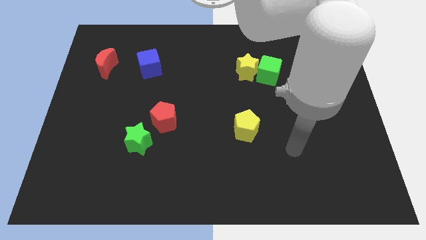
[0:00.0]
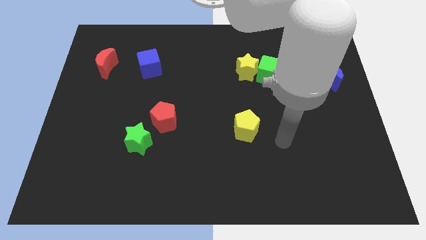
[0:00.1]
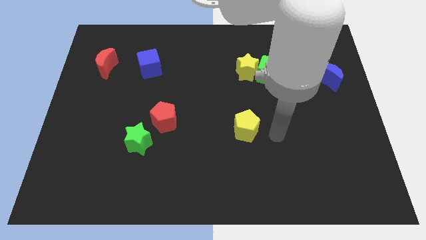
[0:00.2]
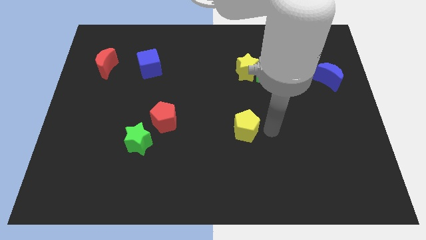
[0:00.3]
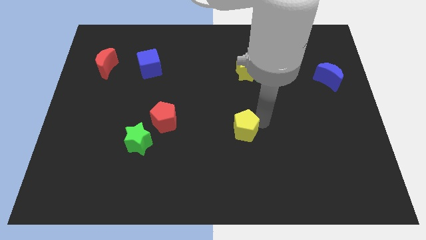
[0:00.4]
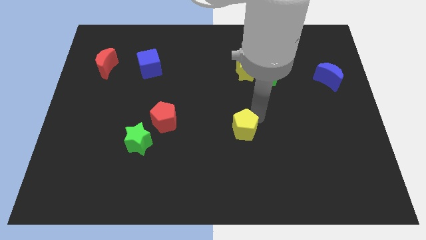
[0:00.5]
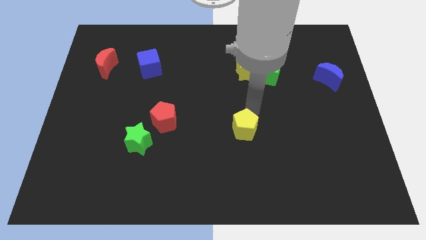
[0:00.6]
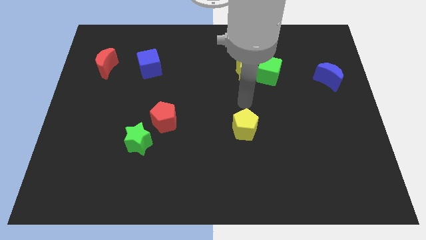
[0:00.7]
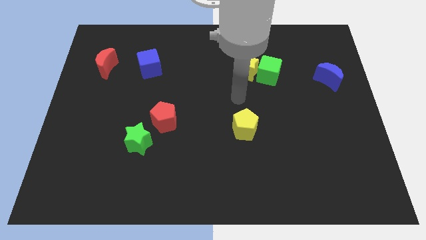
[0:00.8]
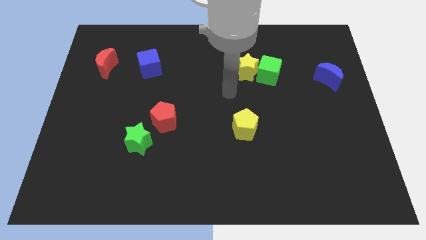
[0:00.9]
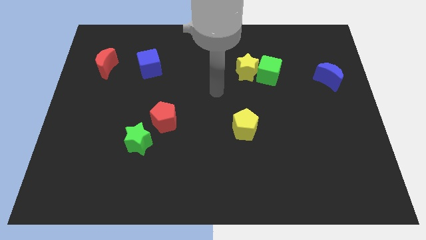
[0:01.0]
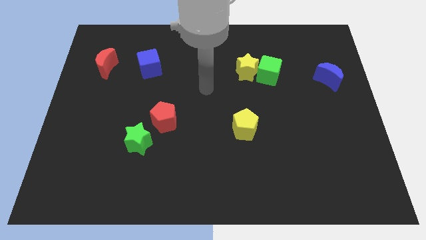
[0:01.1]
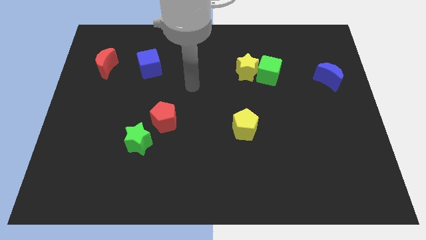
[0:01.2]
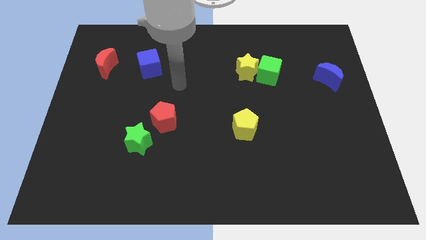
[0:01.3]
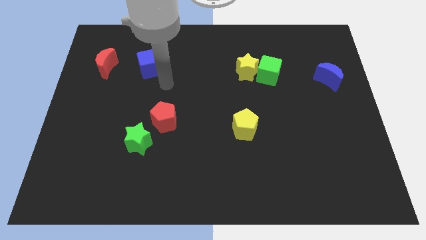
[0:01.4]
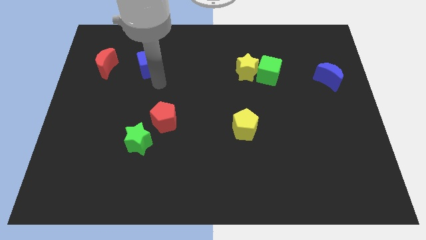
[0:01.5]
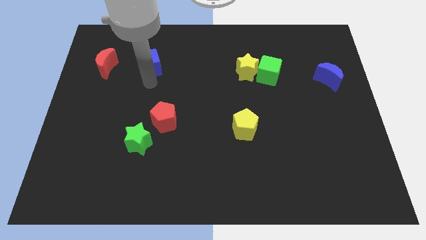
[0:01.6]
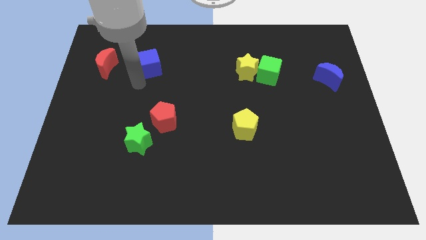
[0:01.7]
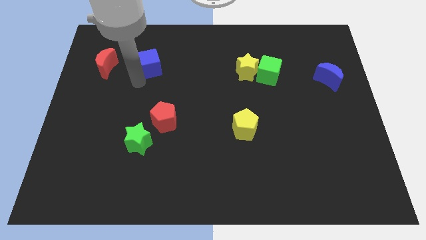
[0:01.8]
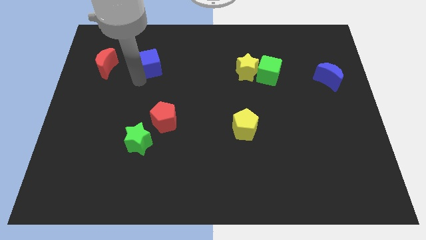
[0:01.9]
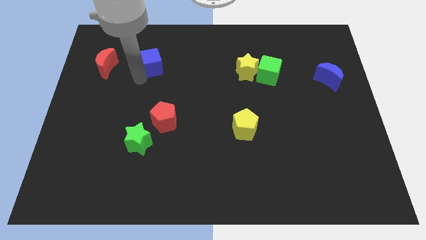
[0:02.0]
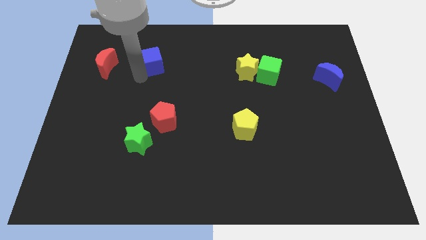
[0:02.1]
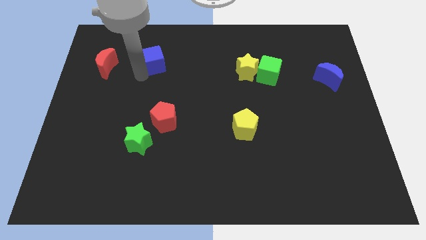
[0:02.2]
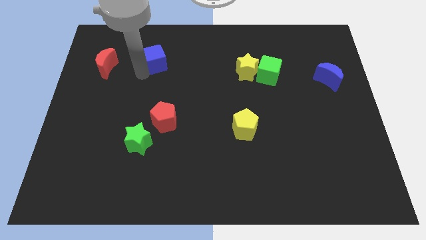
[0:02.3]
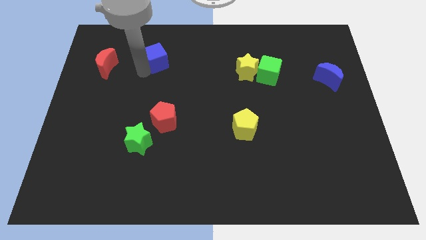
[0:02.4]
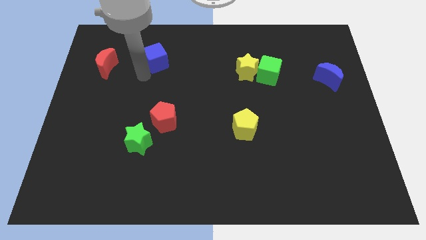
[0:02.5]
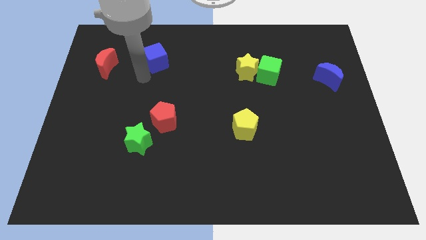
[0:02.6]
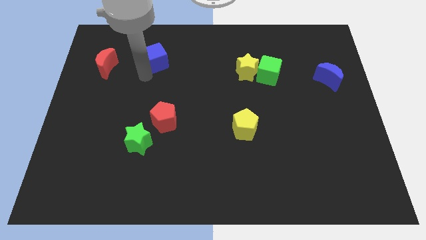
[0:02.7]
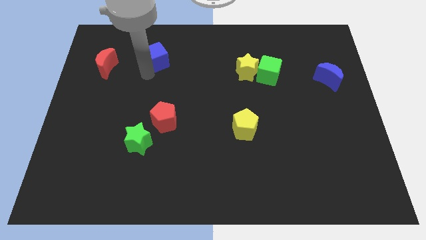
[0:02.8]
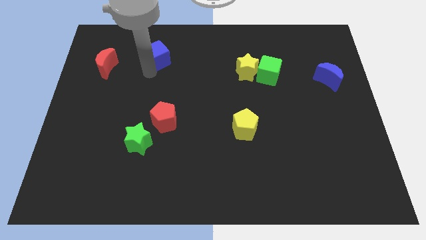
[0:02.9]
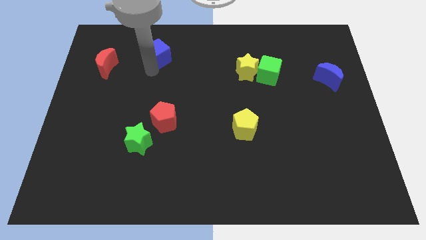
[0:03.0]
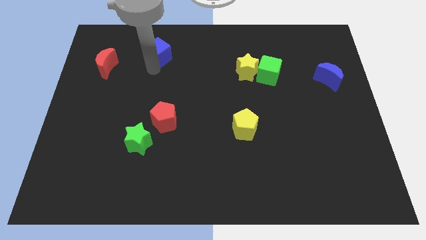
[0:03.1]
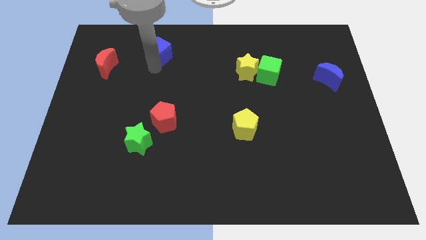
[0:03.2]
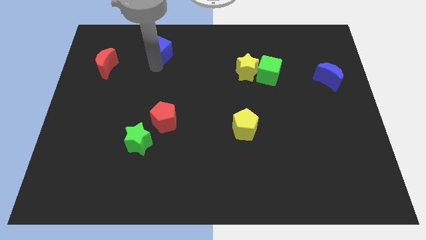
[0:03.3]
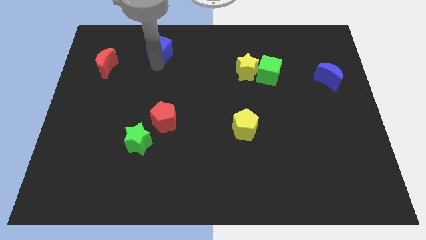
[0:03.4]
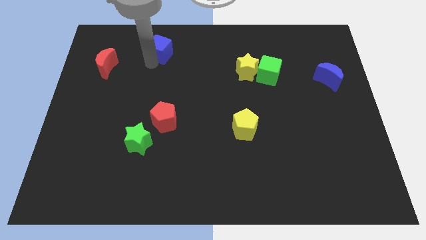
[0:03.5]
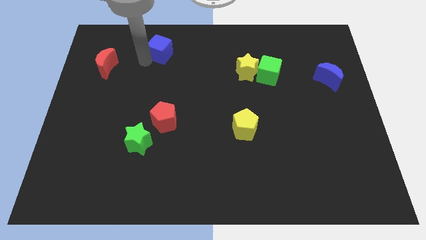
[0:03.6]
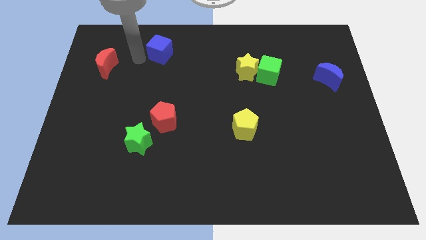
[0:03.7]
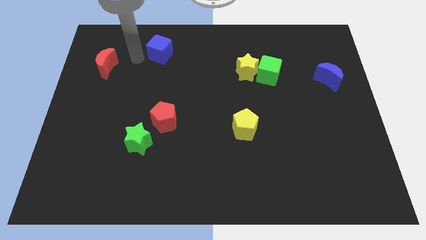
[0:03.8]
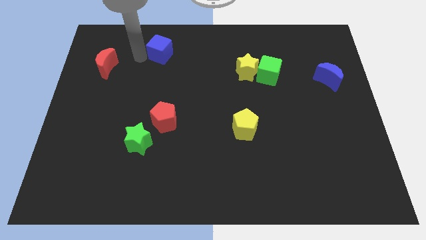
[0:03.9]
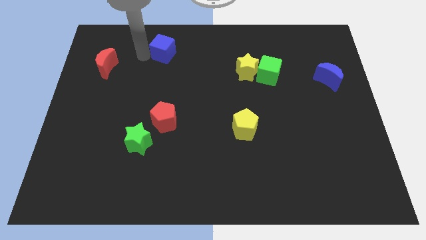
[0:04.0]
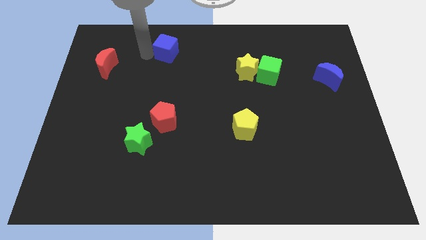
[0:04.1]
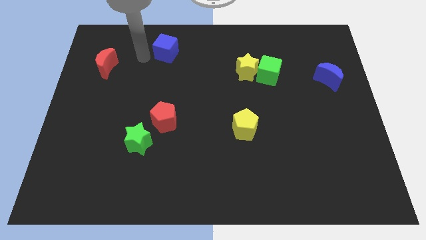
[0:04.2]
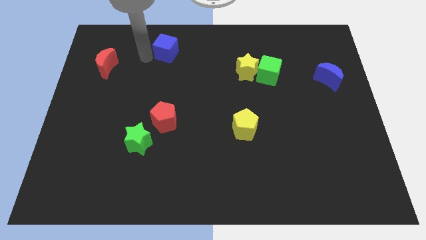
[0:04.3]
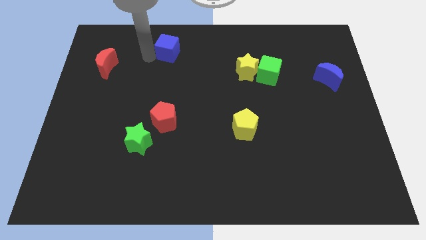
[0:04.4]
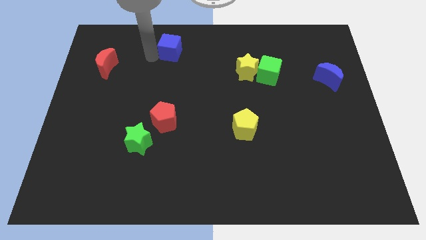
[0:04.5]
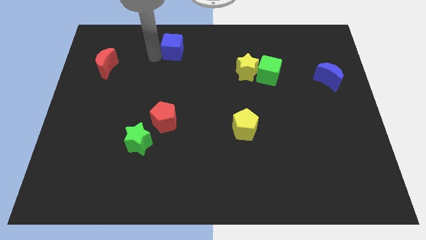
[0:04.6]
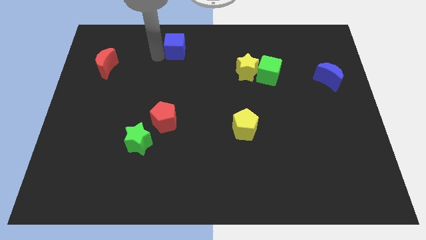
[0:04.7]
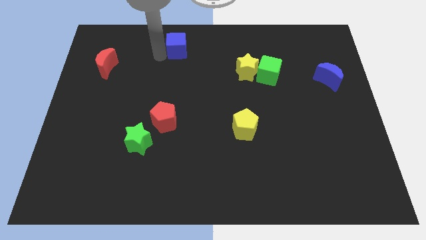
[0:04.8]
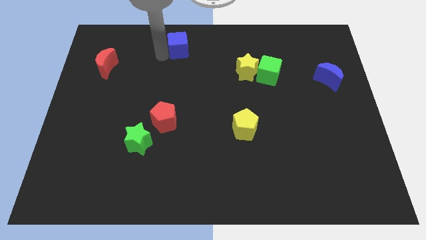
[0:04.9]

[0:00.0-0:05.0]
push the blue cube to the top

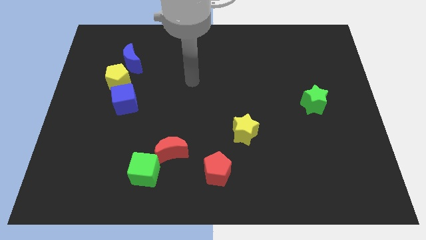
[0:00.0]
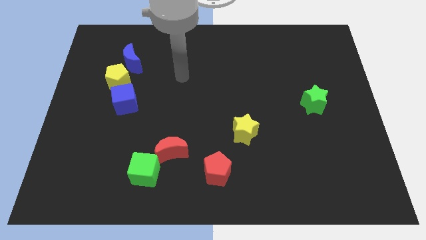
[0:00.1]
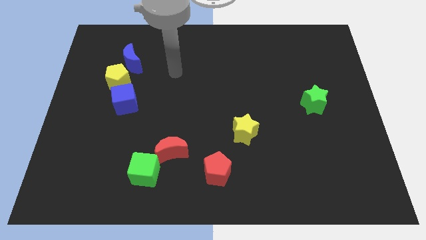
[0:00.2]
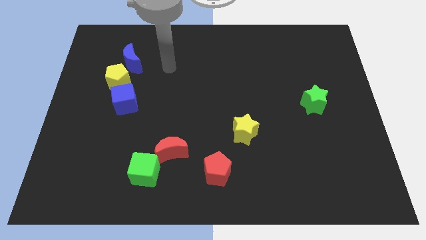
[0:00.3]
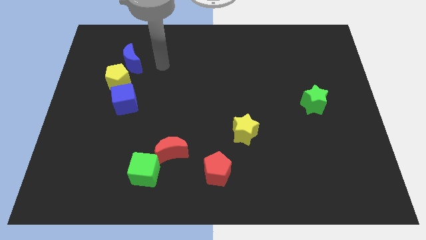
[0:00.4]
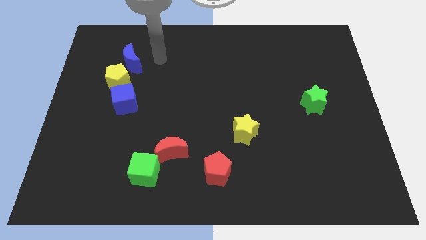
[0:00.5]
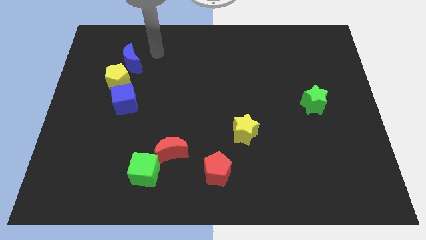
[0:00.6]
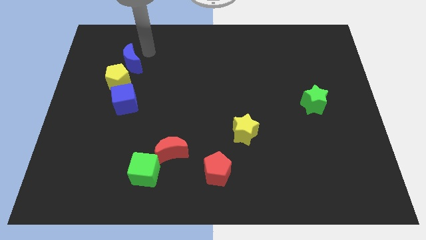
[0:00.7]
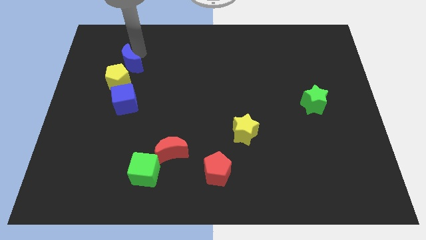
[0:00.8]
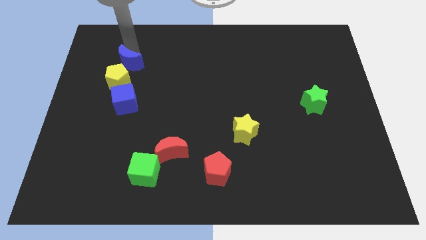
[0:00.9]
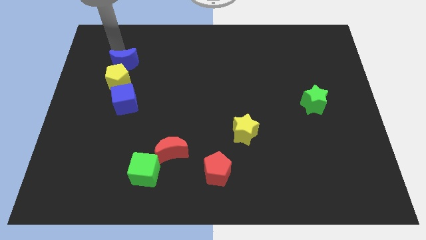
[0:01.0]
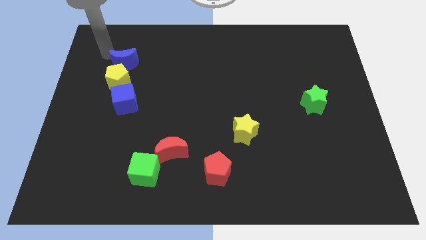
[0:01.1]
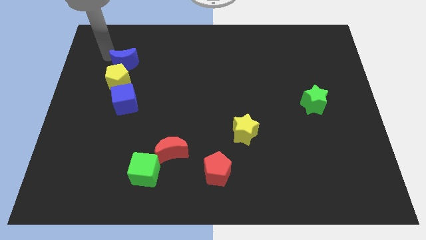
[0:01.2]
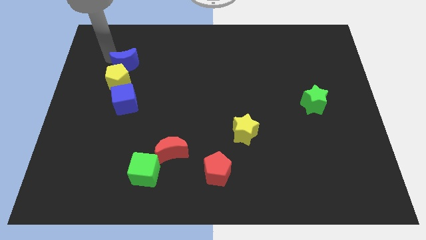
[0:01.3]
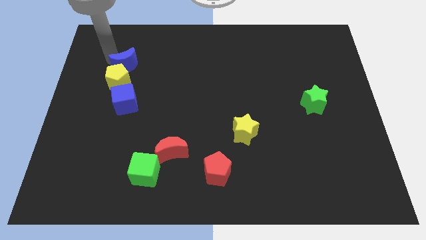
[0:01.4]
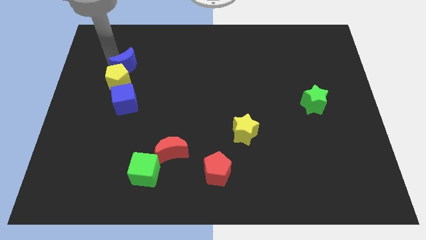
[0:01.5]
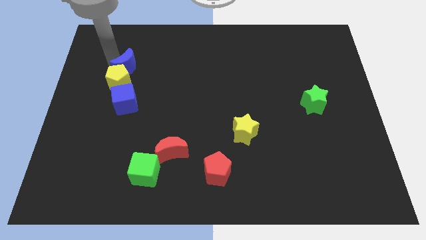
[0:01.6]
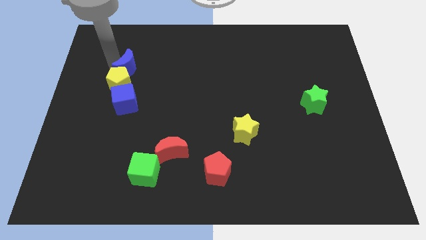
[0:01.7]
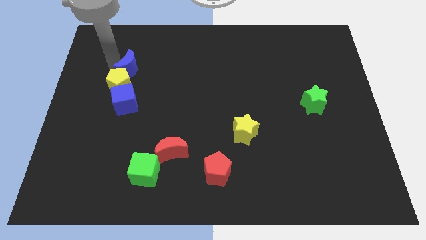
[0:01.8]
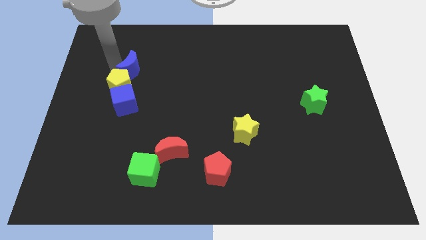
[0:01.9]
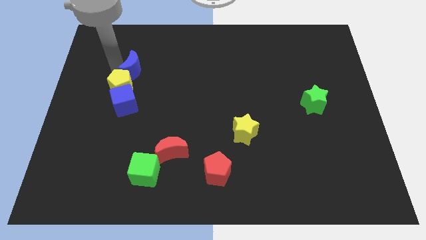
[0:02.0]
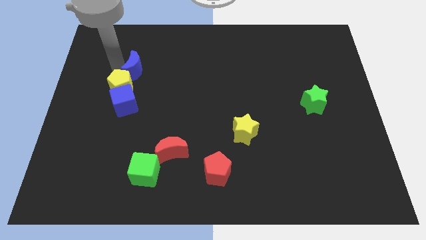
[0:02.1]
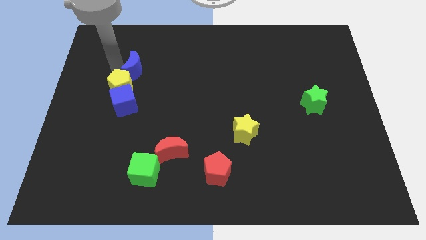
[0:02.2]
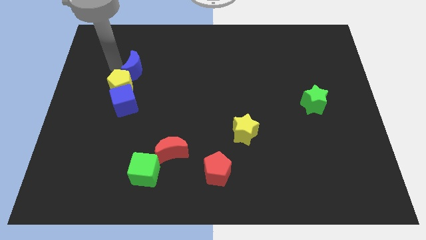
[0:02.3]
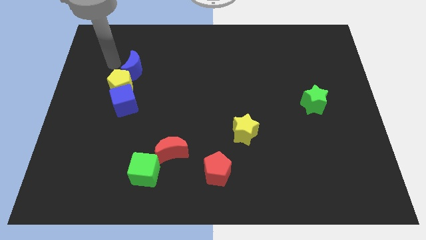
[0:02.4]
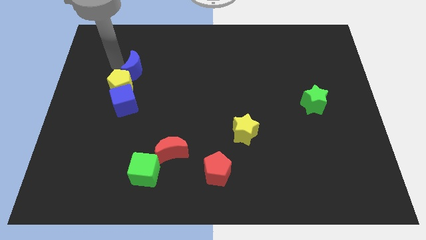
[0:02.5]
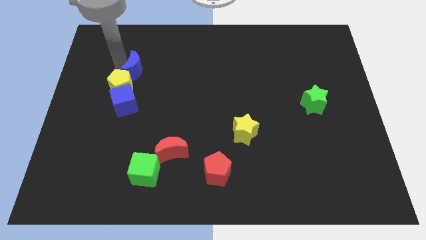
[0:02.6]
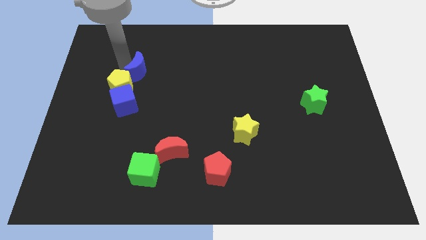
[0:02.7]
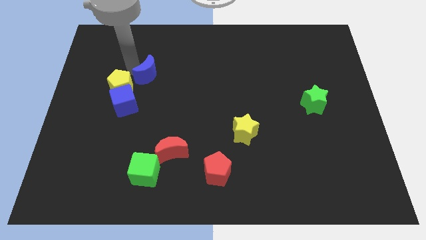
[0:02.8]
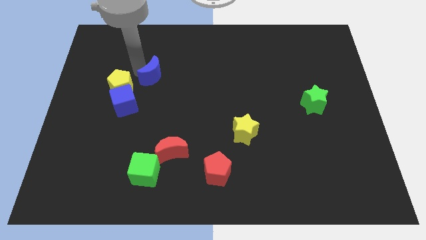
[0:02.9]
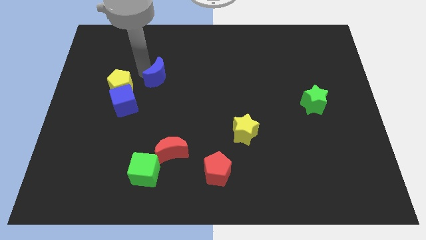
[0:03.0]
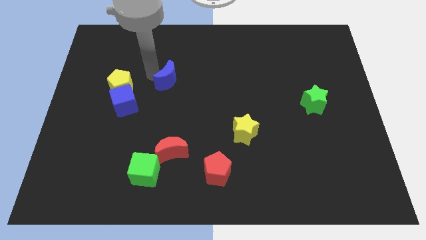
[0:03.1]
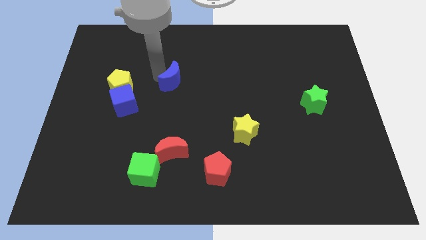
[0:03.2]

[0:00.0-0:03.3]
move the blue moon to the center
